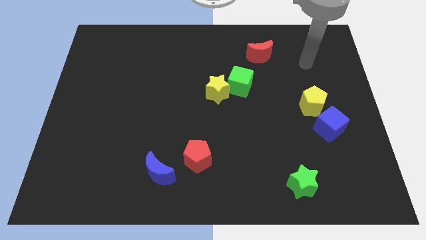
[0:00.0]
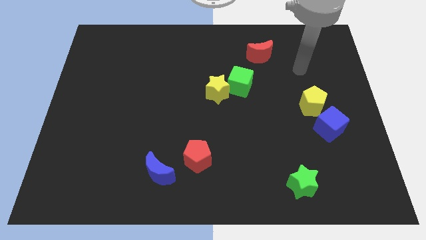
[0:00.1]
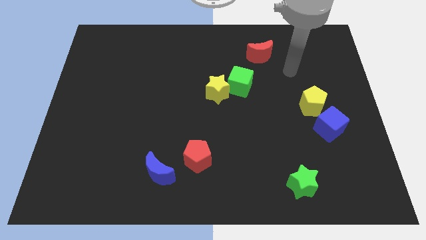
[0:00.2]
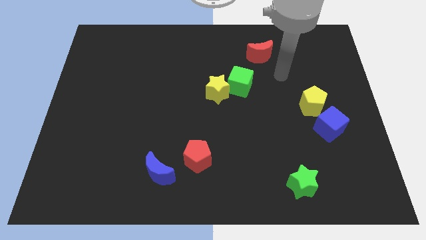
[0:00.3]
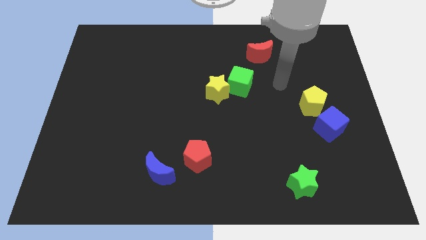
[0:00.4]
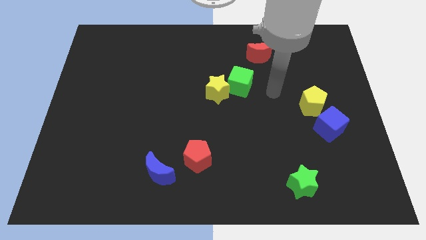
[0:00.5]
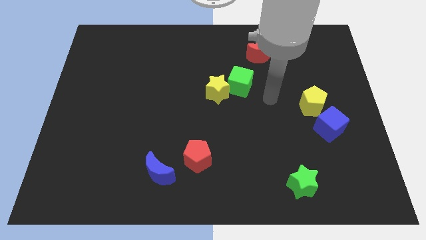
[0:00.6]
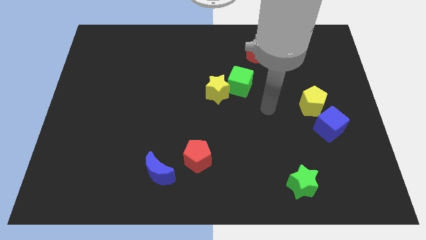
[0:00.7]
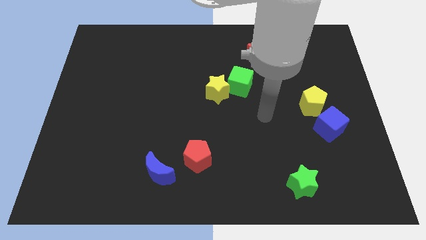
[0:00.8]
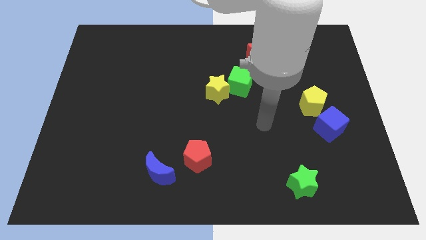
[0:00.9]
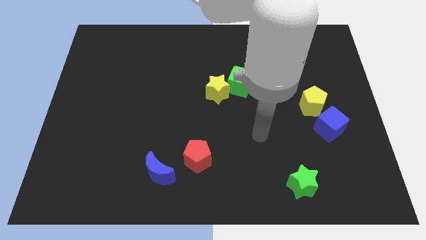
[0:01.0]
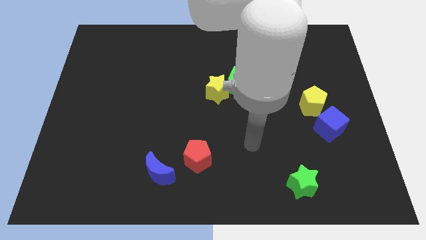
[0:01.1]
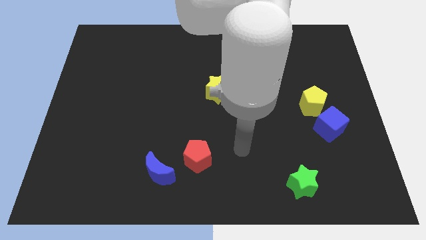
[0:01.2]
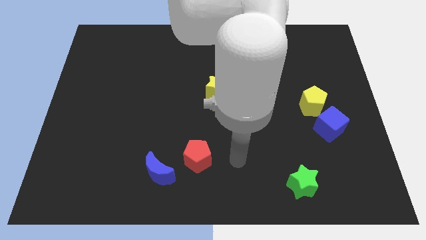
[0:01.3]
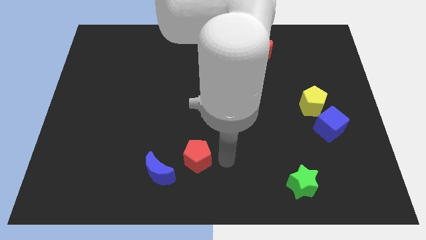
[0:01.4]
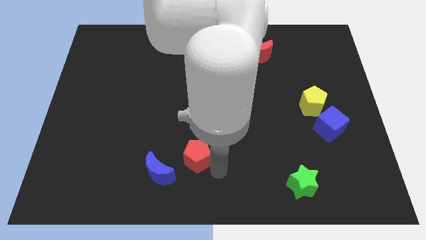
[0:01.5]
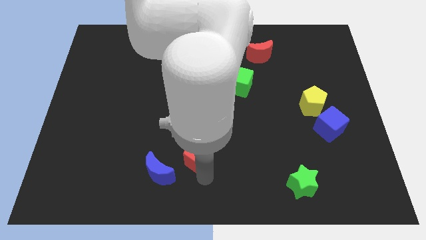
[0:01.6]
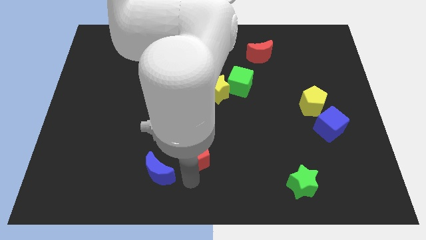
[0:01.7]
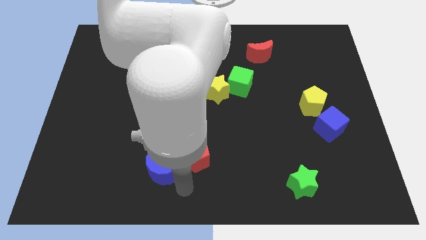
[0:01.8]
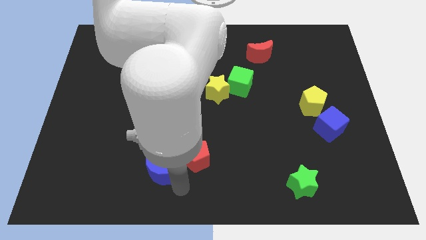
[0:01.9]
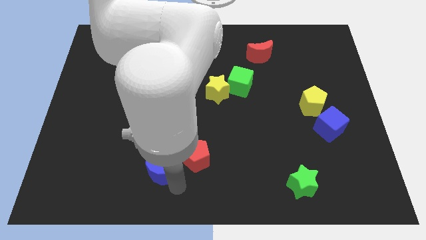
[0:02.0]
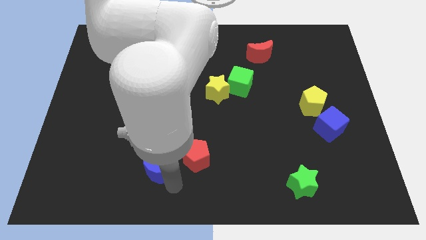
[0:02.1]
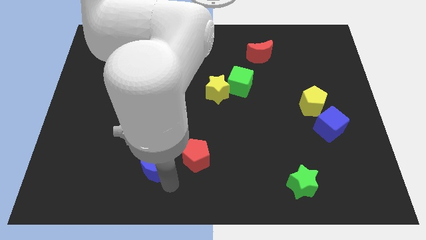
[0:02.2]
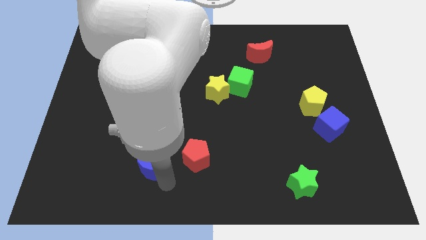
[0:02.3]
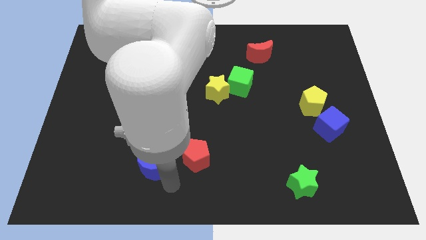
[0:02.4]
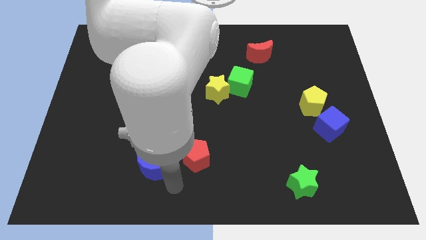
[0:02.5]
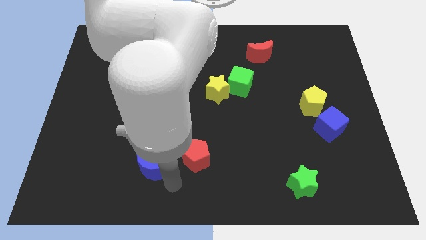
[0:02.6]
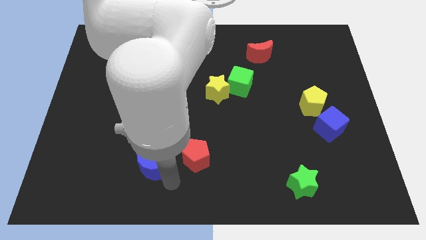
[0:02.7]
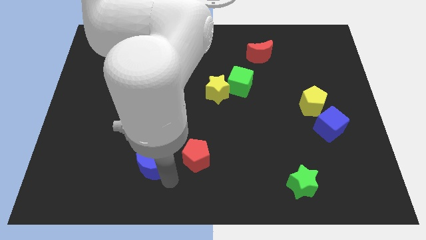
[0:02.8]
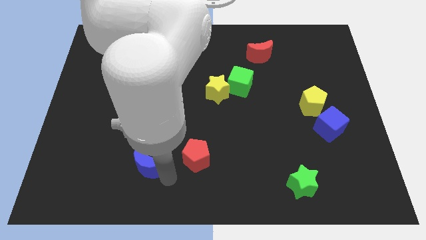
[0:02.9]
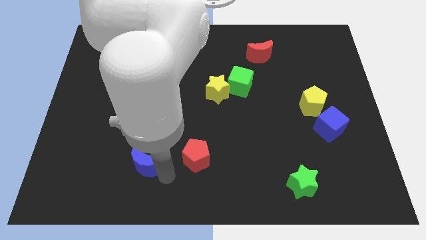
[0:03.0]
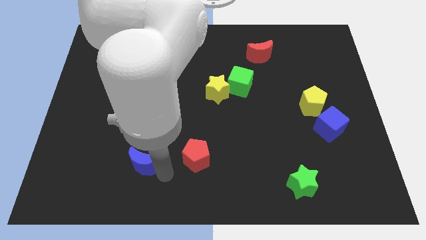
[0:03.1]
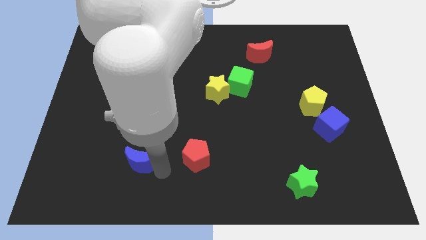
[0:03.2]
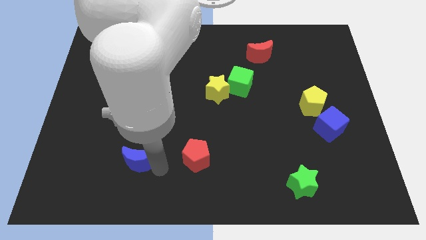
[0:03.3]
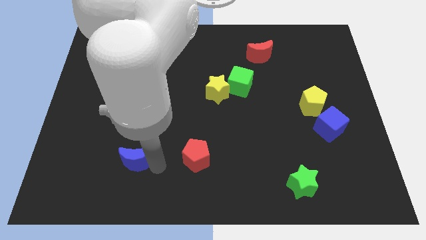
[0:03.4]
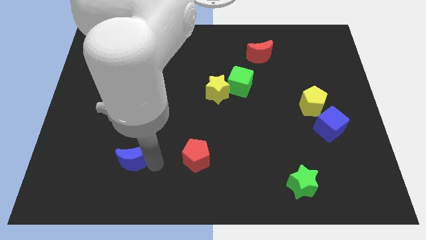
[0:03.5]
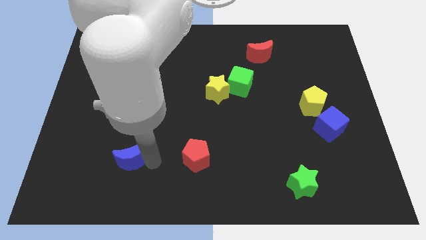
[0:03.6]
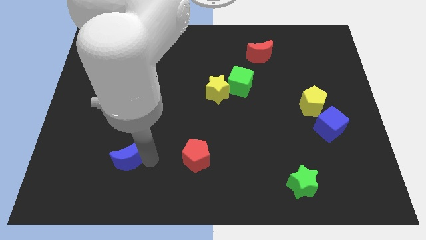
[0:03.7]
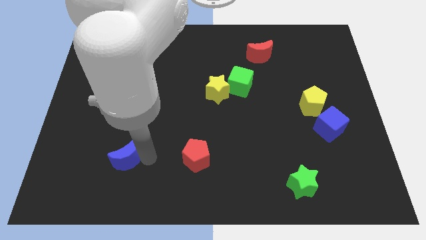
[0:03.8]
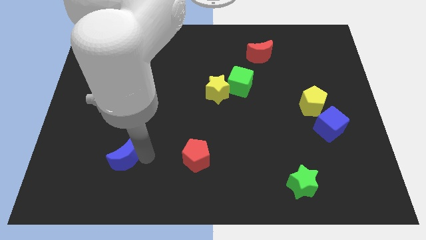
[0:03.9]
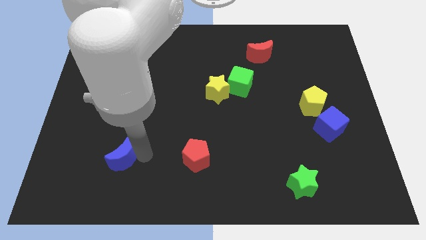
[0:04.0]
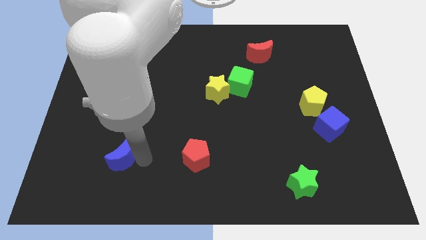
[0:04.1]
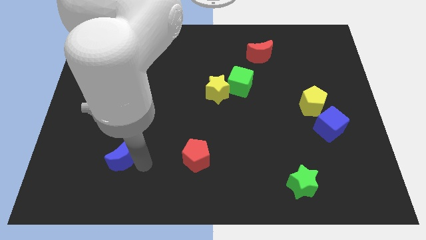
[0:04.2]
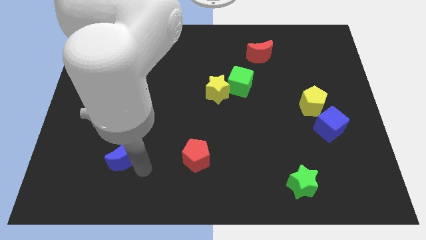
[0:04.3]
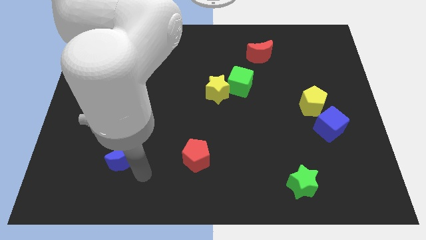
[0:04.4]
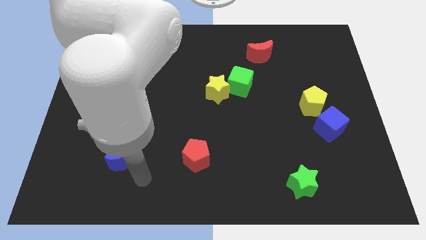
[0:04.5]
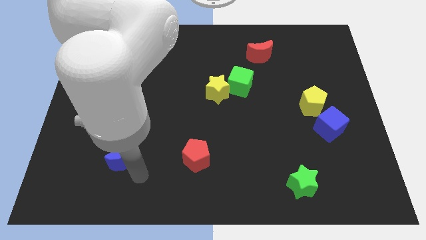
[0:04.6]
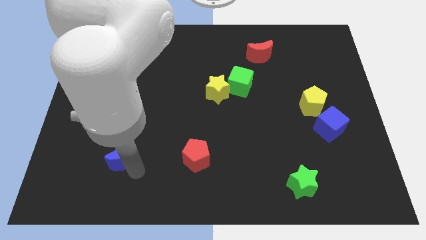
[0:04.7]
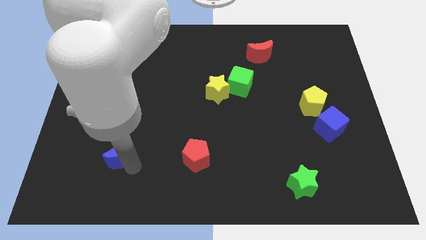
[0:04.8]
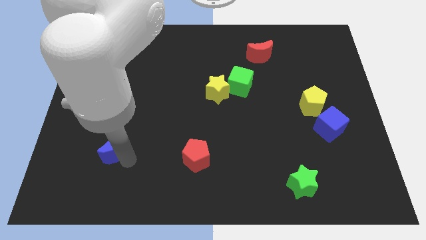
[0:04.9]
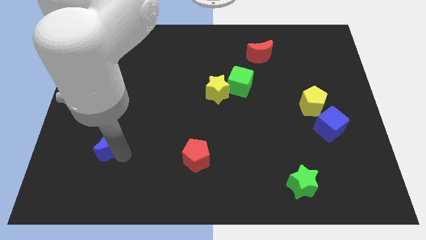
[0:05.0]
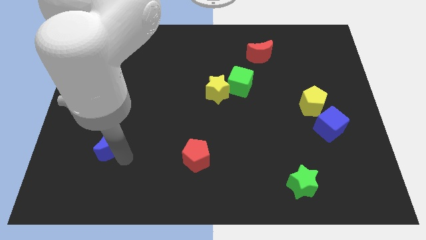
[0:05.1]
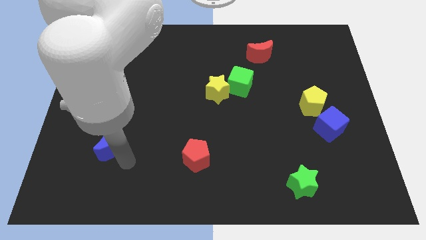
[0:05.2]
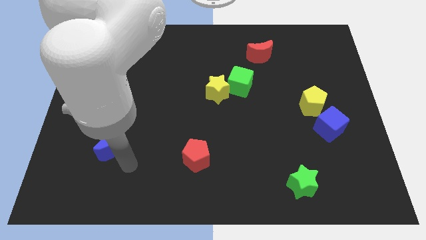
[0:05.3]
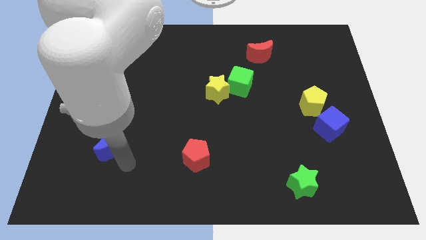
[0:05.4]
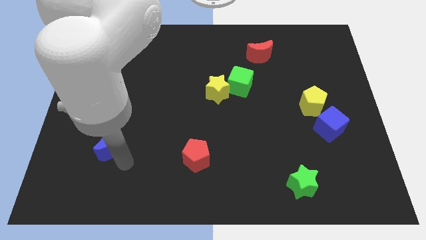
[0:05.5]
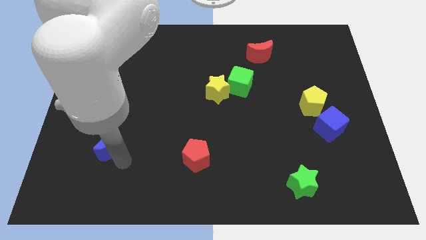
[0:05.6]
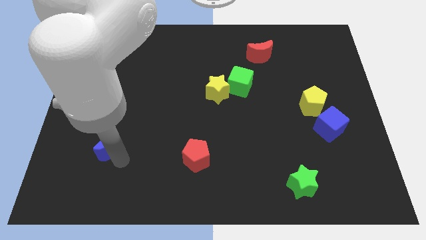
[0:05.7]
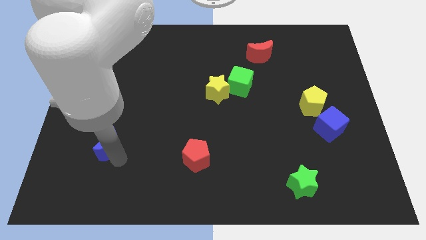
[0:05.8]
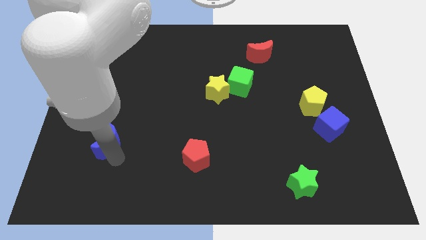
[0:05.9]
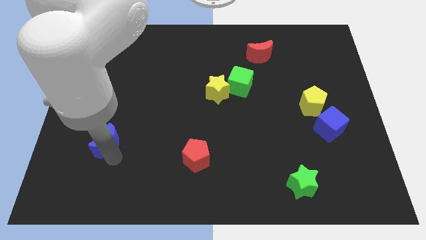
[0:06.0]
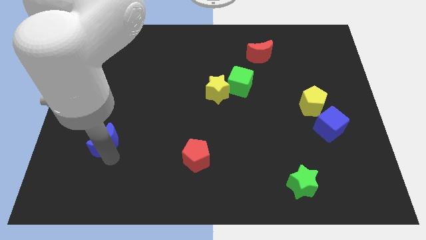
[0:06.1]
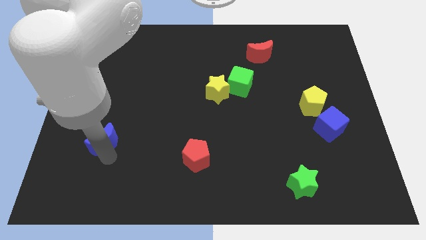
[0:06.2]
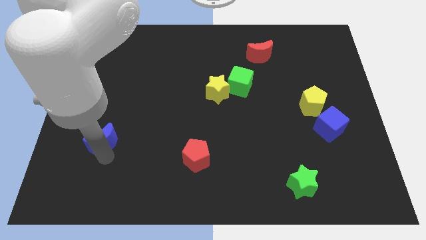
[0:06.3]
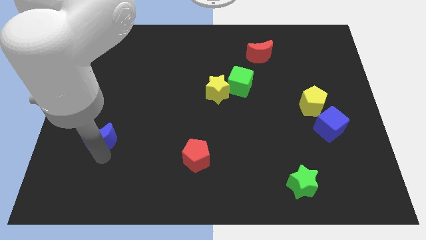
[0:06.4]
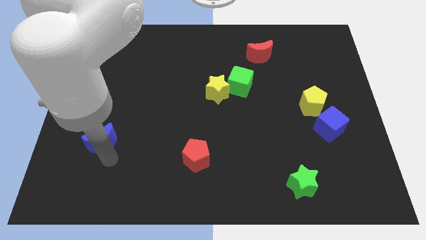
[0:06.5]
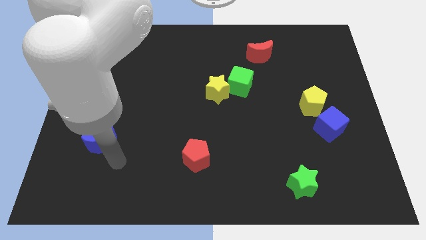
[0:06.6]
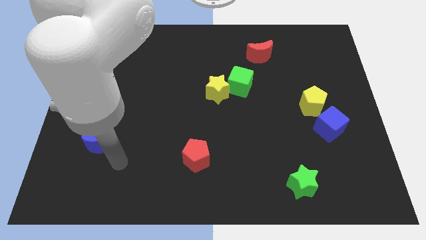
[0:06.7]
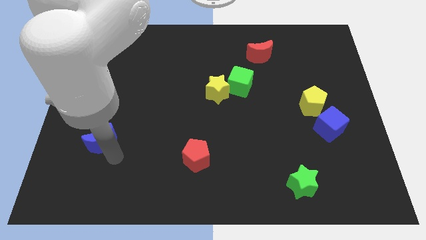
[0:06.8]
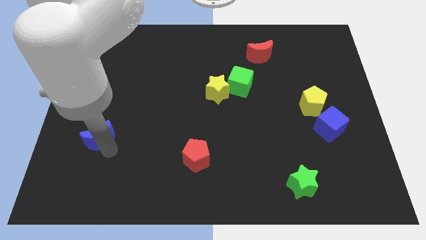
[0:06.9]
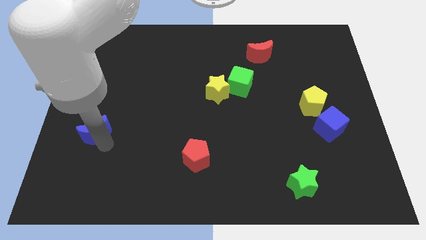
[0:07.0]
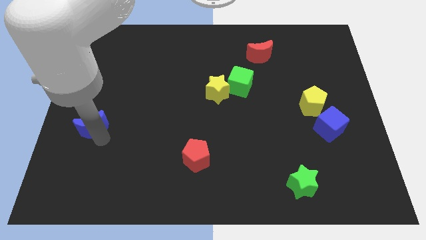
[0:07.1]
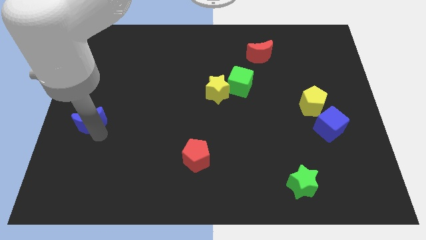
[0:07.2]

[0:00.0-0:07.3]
push the blue moon to the left side
